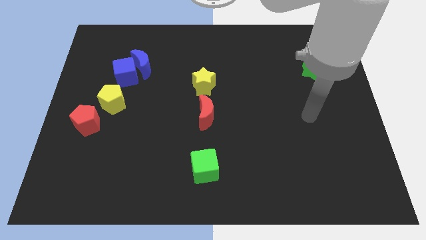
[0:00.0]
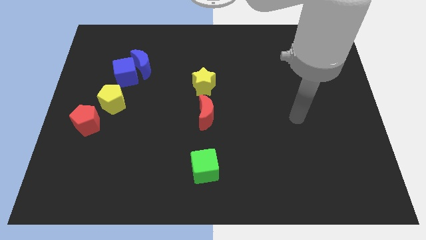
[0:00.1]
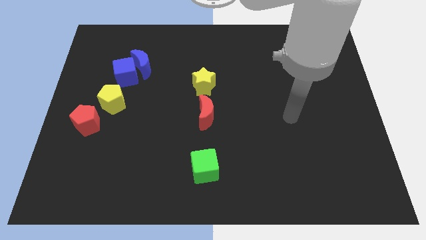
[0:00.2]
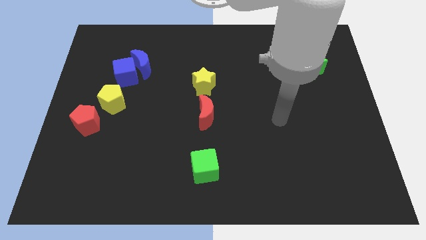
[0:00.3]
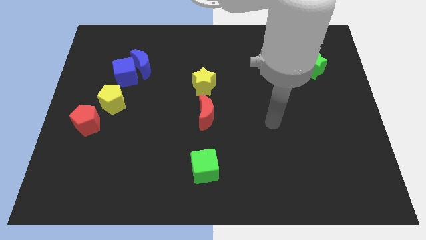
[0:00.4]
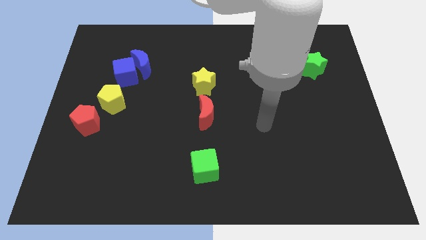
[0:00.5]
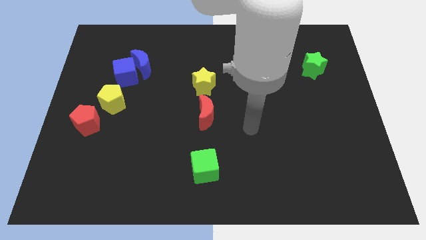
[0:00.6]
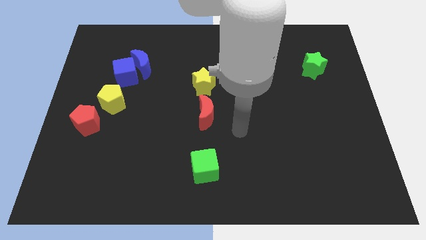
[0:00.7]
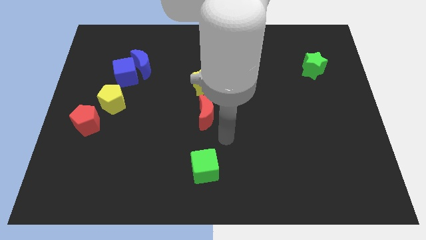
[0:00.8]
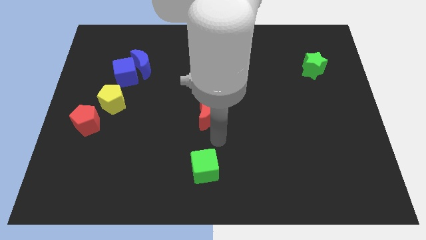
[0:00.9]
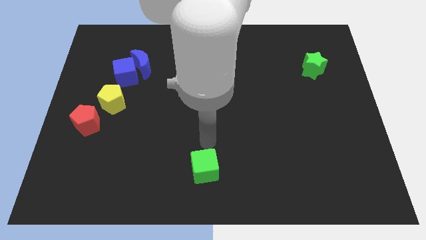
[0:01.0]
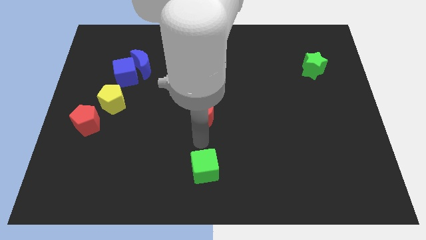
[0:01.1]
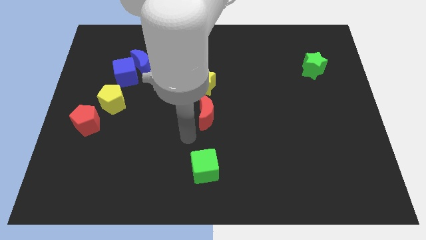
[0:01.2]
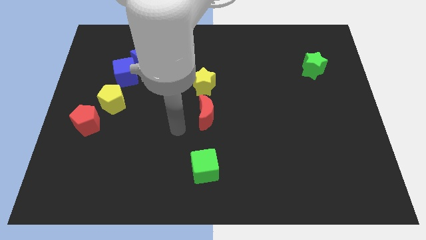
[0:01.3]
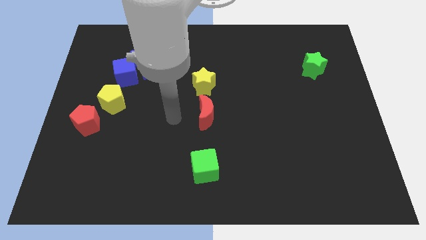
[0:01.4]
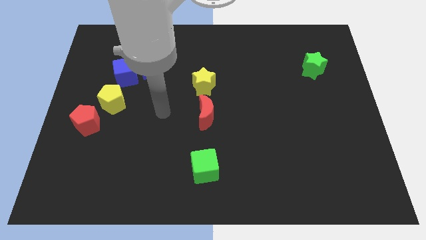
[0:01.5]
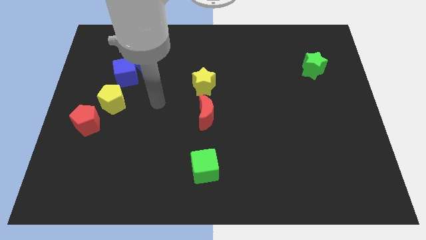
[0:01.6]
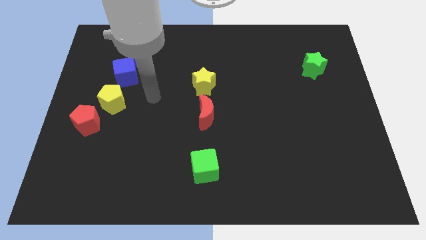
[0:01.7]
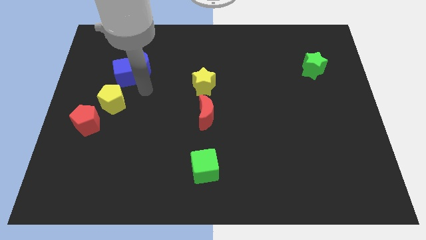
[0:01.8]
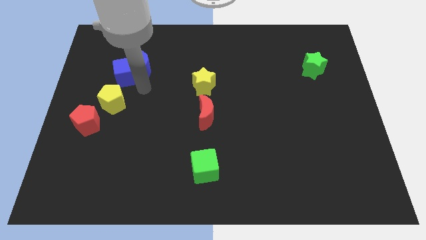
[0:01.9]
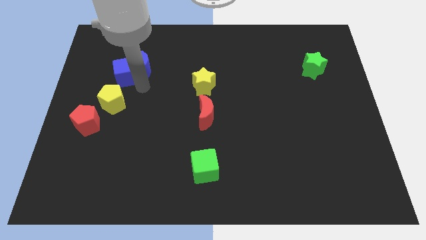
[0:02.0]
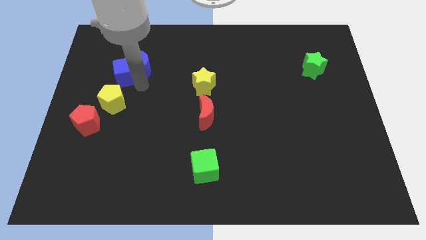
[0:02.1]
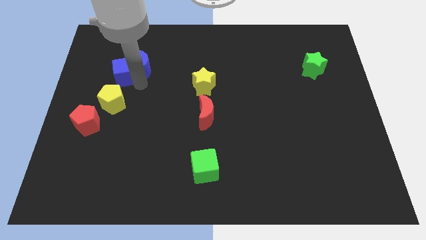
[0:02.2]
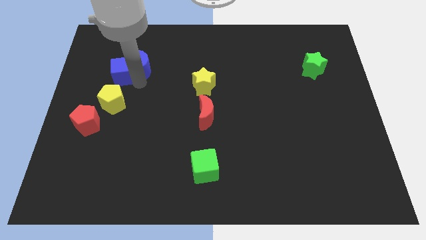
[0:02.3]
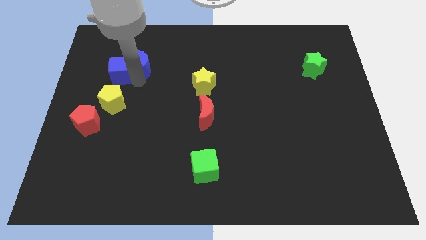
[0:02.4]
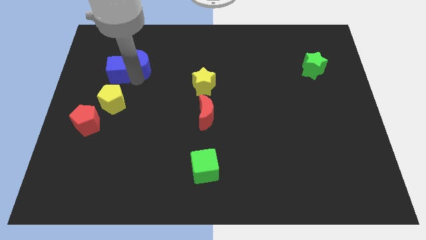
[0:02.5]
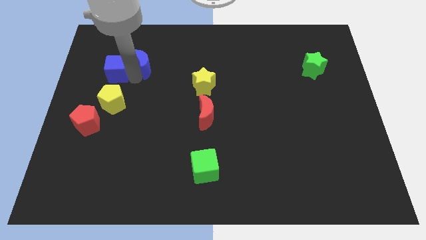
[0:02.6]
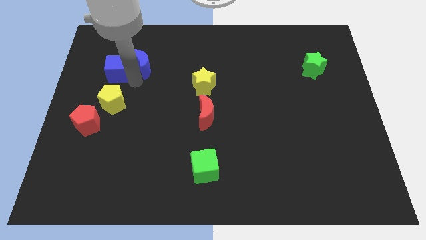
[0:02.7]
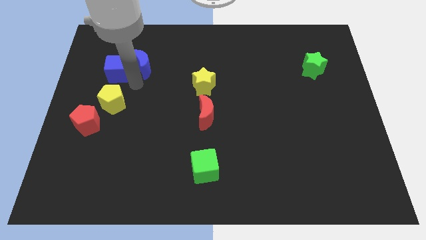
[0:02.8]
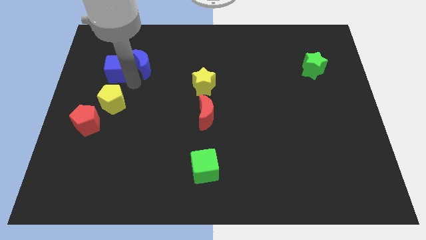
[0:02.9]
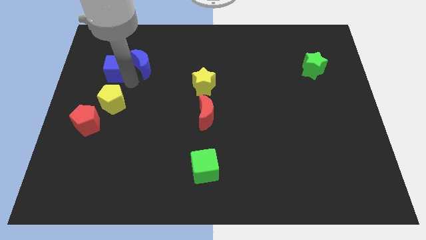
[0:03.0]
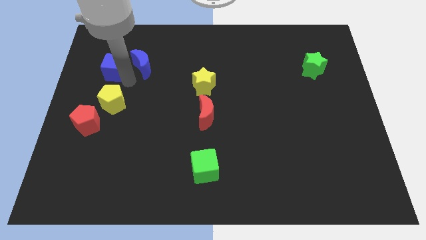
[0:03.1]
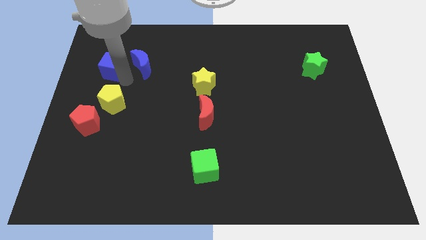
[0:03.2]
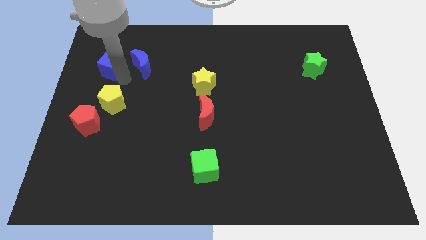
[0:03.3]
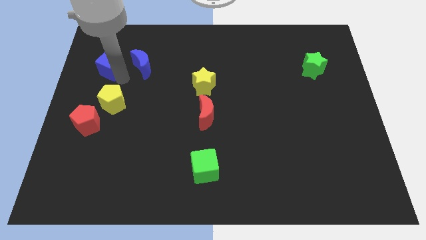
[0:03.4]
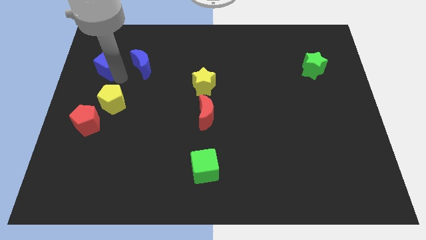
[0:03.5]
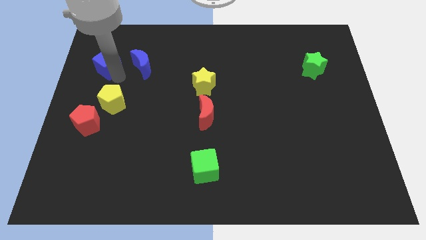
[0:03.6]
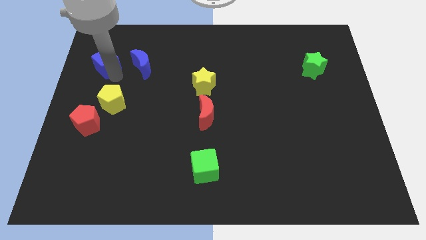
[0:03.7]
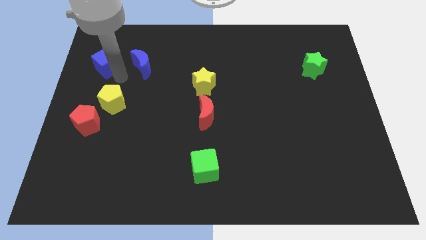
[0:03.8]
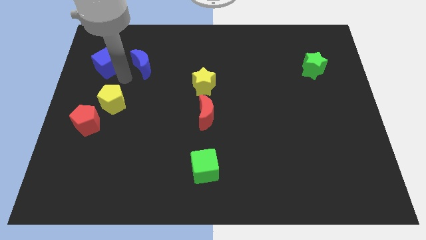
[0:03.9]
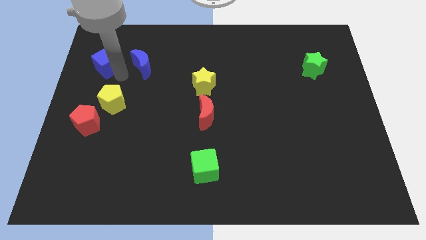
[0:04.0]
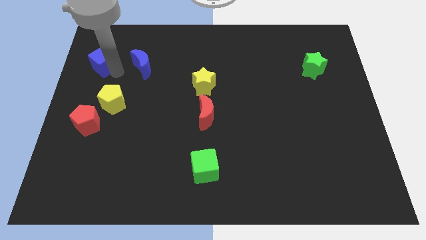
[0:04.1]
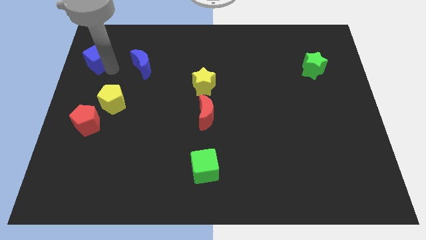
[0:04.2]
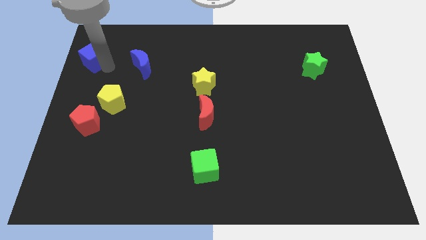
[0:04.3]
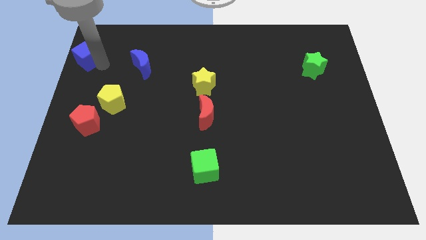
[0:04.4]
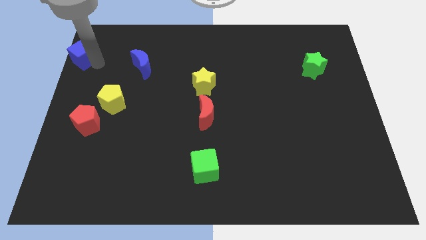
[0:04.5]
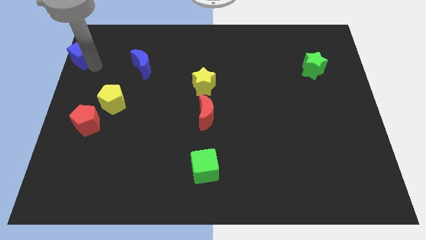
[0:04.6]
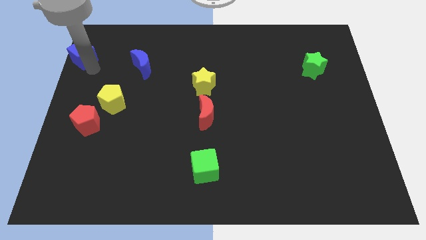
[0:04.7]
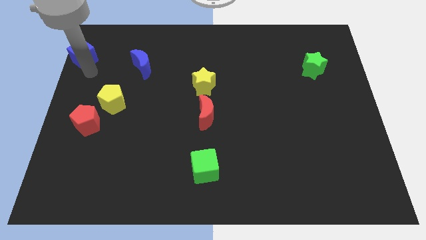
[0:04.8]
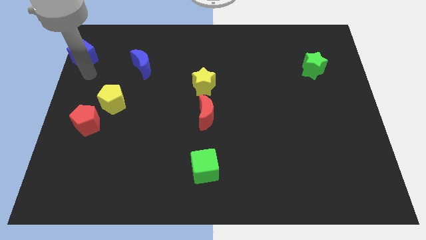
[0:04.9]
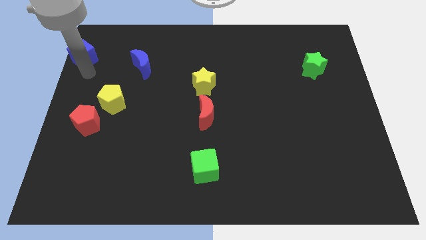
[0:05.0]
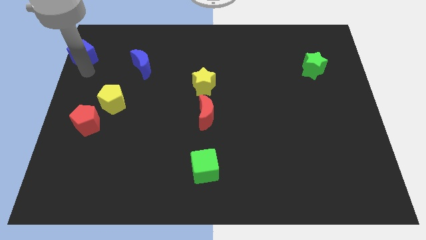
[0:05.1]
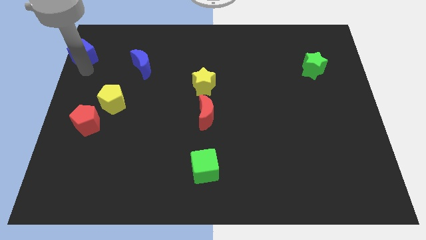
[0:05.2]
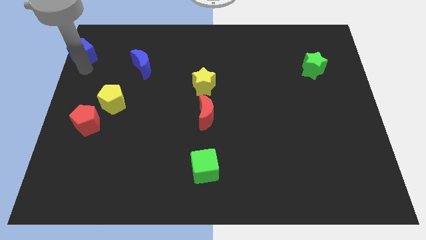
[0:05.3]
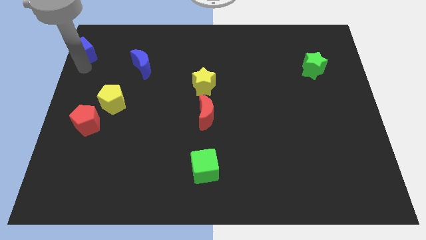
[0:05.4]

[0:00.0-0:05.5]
slide the blue cube to the top left corner

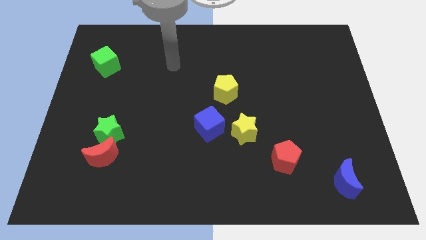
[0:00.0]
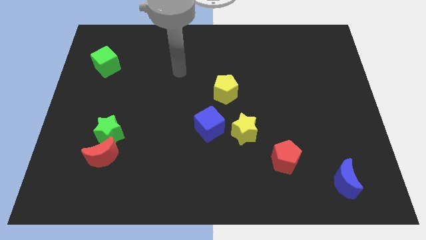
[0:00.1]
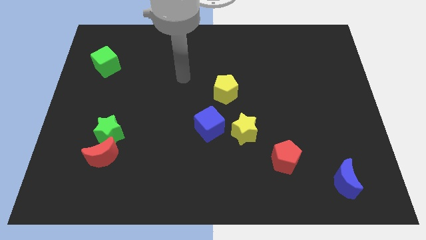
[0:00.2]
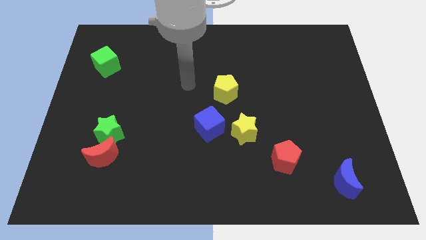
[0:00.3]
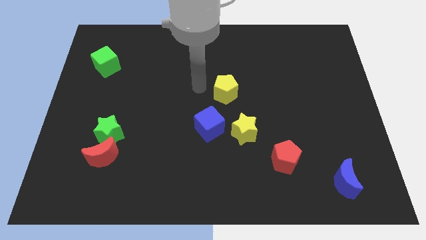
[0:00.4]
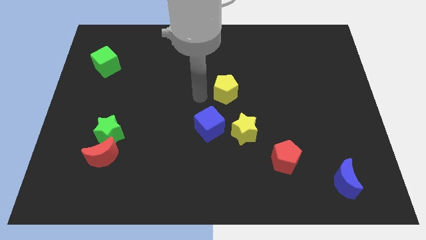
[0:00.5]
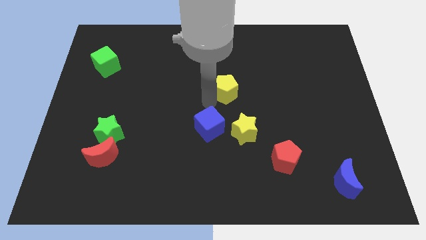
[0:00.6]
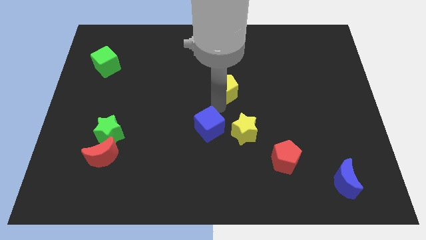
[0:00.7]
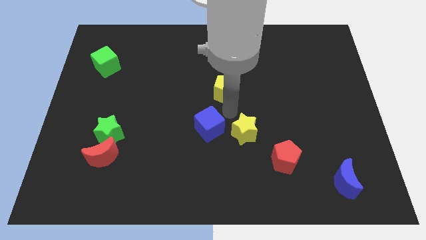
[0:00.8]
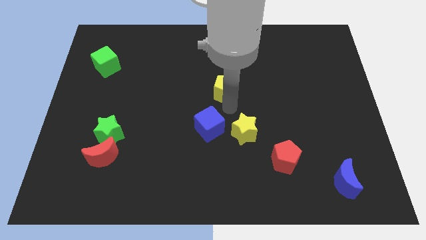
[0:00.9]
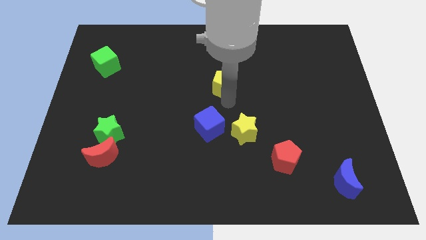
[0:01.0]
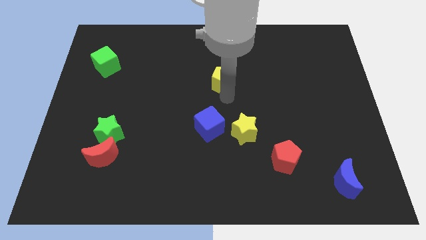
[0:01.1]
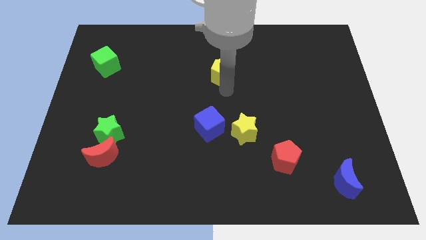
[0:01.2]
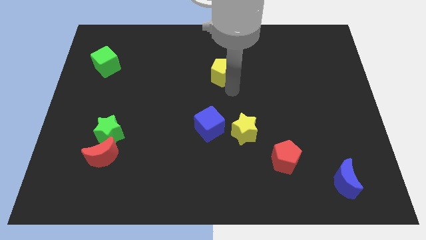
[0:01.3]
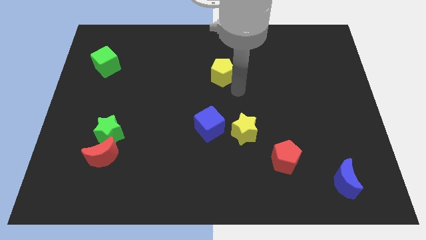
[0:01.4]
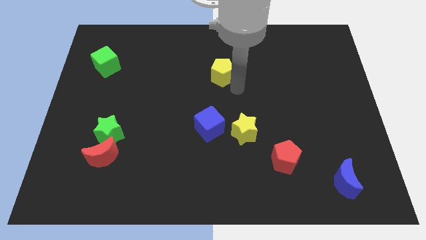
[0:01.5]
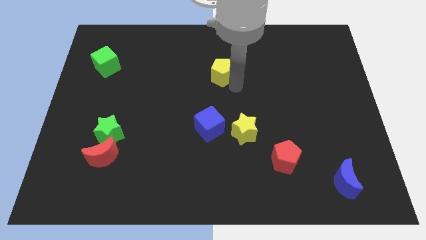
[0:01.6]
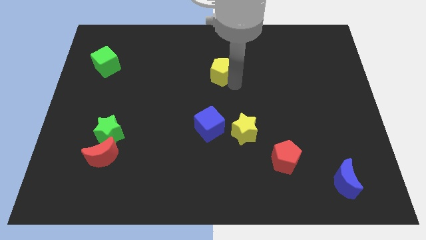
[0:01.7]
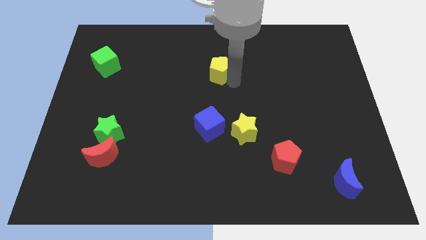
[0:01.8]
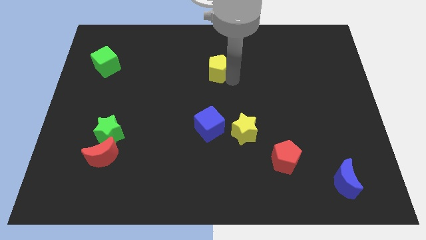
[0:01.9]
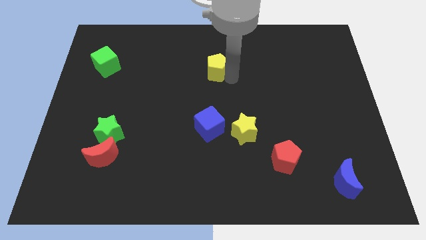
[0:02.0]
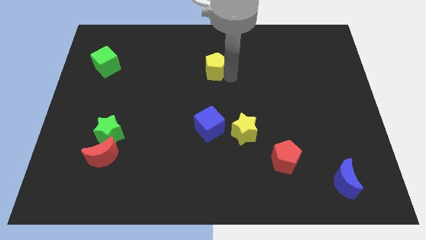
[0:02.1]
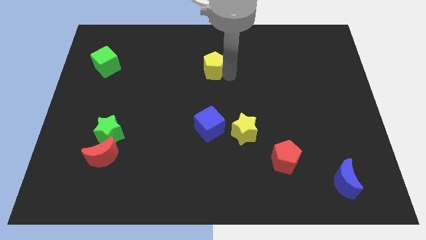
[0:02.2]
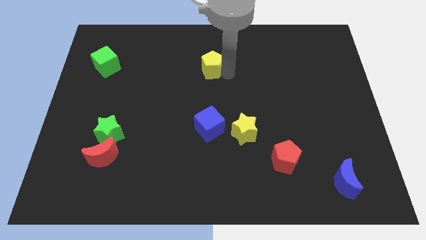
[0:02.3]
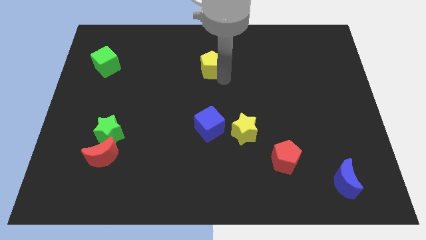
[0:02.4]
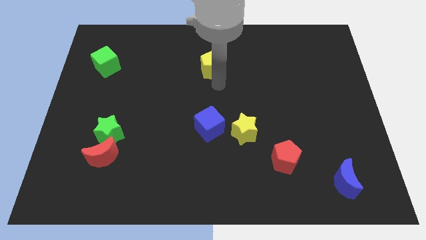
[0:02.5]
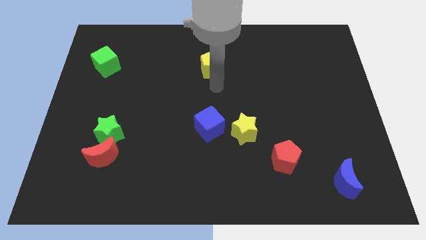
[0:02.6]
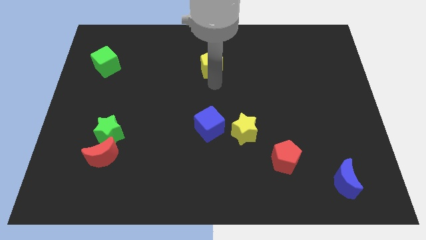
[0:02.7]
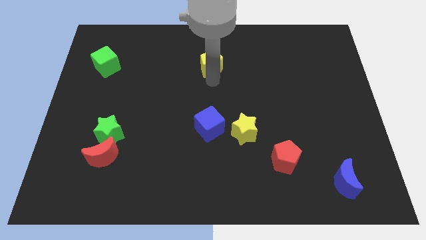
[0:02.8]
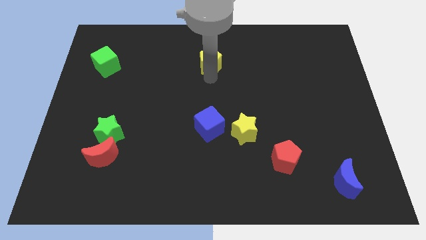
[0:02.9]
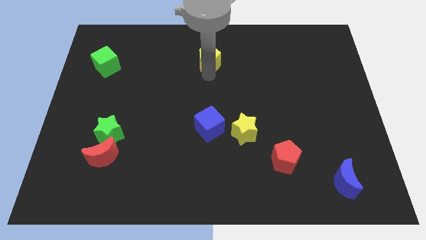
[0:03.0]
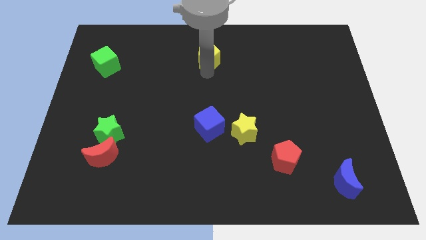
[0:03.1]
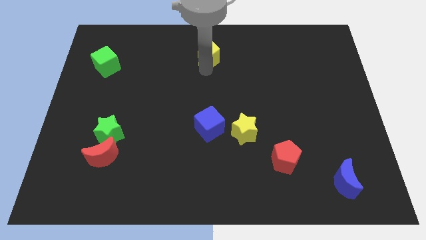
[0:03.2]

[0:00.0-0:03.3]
slide the yellow pentagon to the top side
